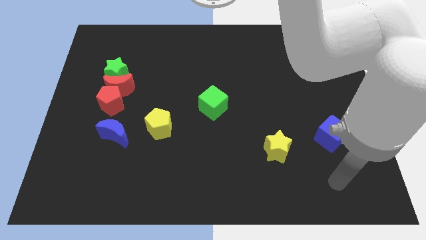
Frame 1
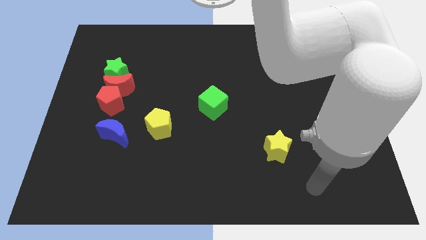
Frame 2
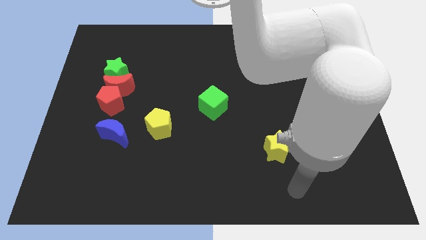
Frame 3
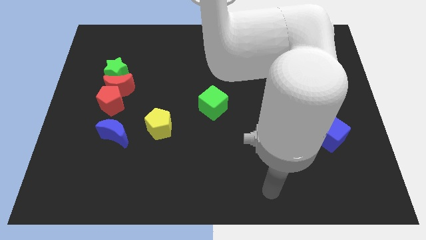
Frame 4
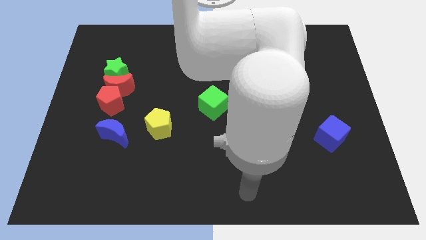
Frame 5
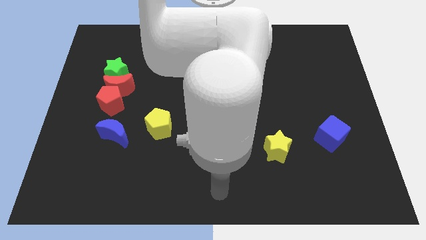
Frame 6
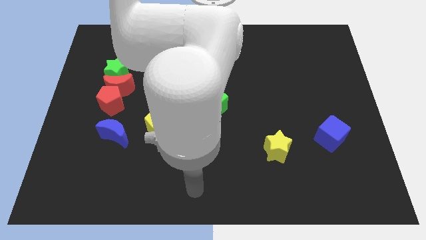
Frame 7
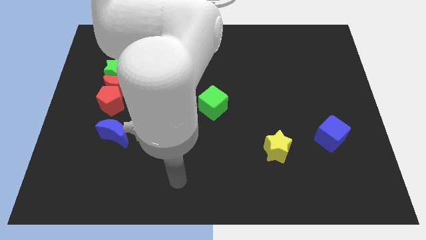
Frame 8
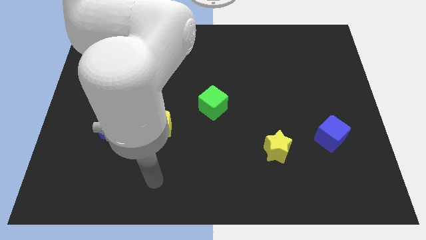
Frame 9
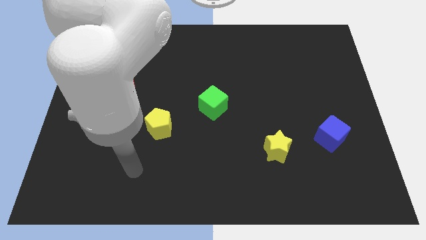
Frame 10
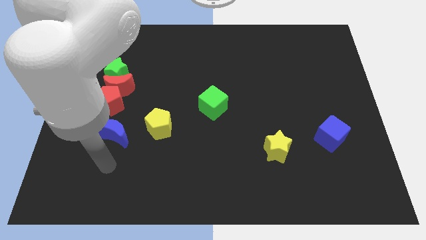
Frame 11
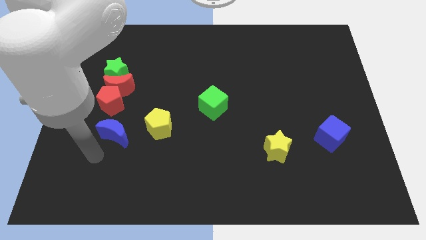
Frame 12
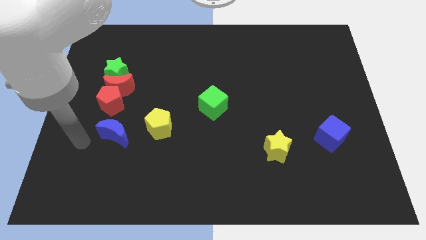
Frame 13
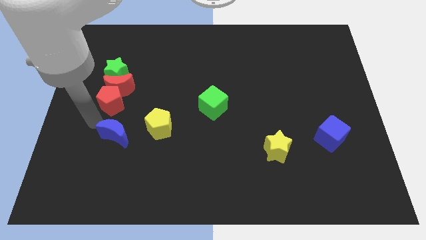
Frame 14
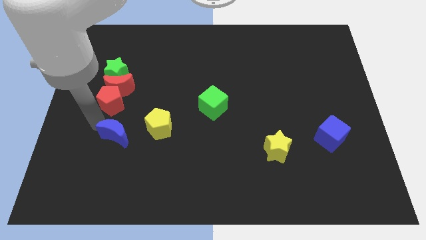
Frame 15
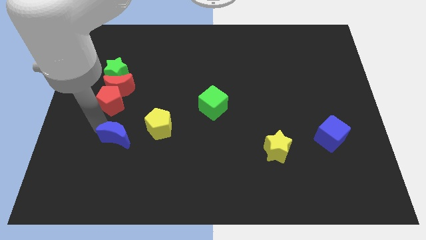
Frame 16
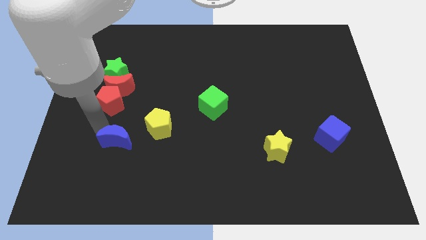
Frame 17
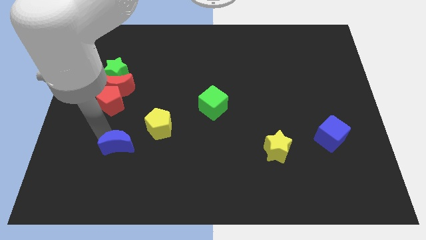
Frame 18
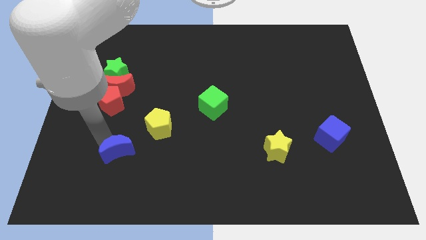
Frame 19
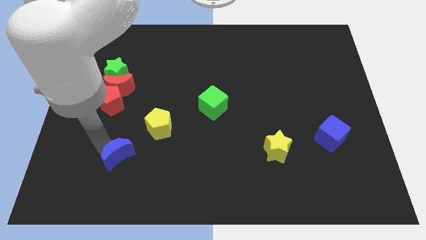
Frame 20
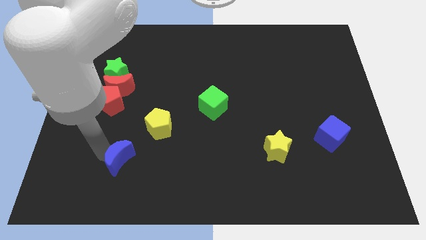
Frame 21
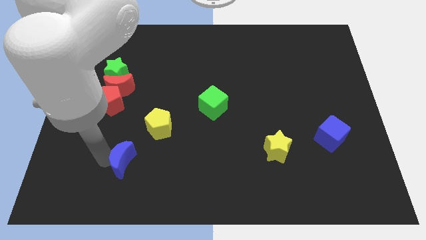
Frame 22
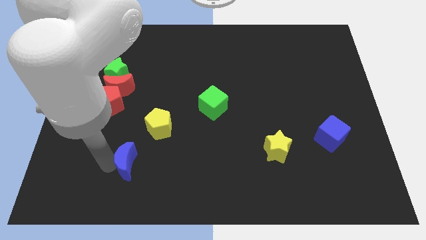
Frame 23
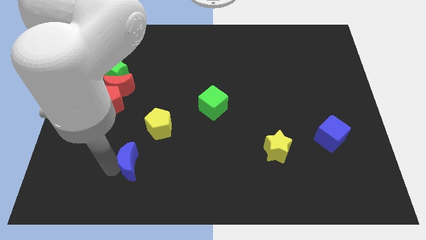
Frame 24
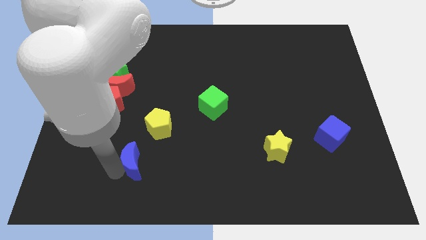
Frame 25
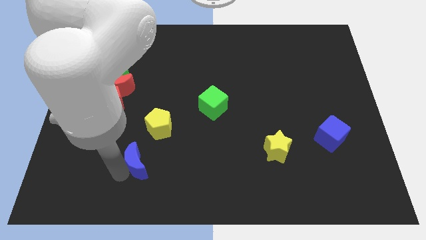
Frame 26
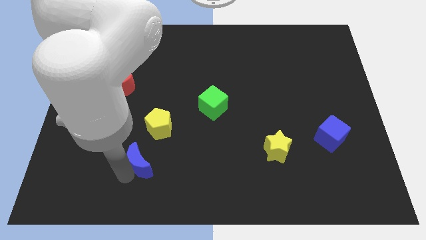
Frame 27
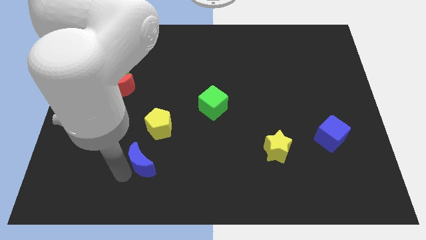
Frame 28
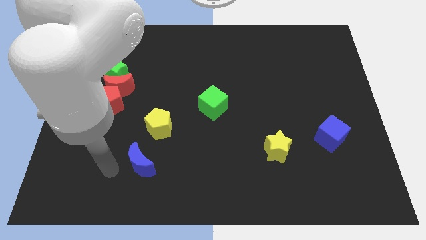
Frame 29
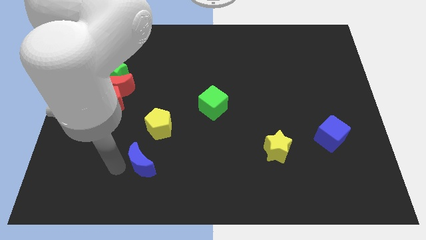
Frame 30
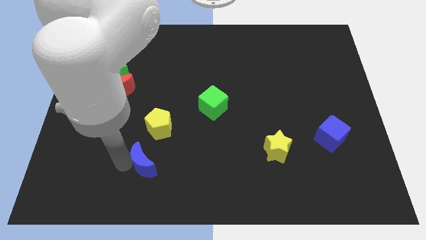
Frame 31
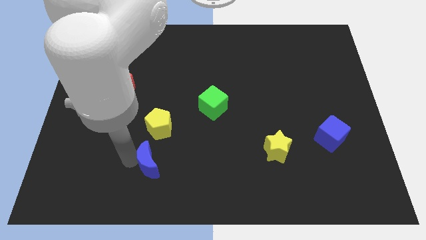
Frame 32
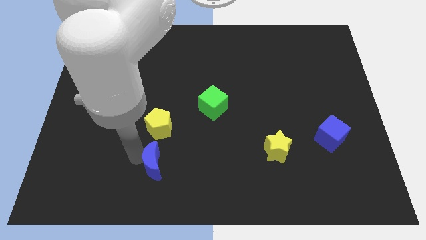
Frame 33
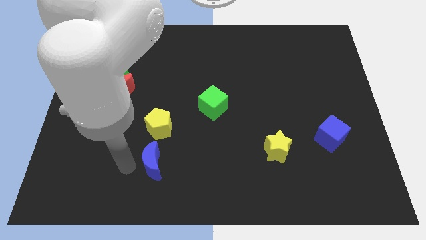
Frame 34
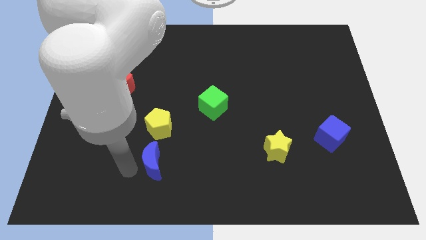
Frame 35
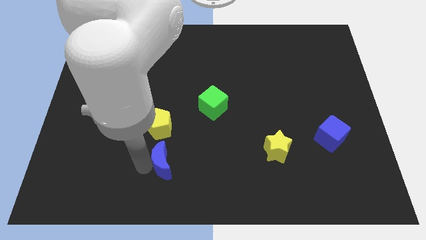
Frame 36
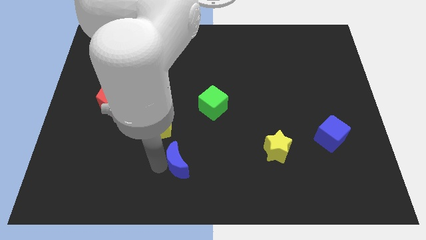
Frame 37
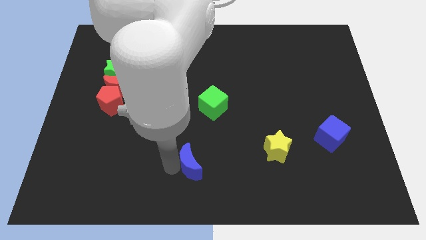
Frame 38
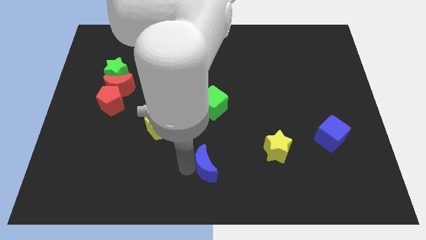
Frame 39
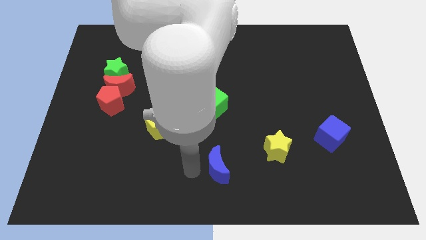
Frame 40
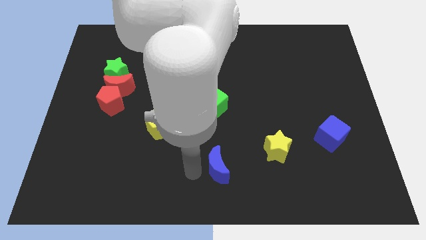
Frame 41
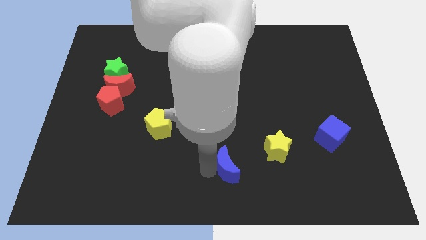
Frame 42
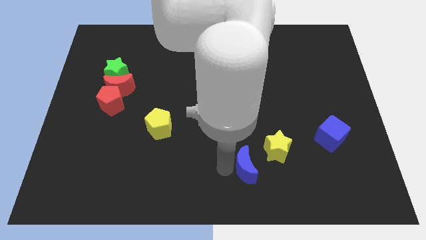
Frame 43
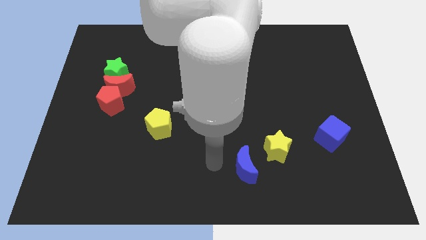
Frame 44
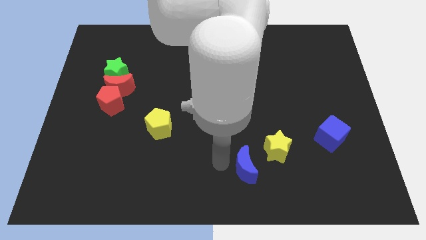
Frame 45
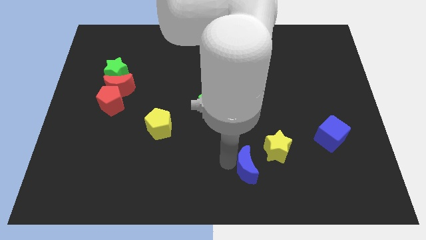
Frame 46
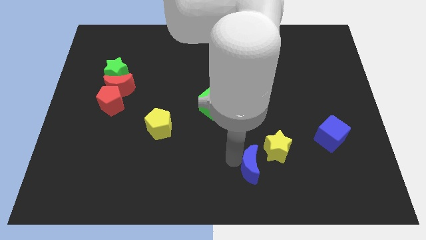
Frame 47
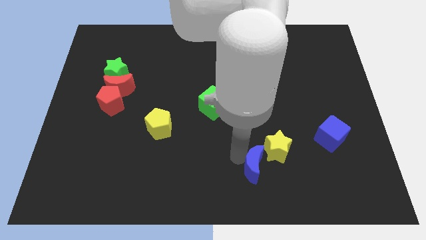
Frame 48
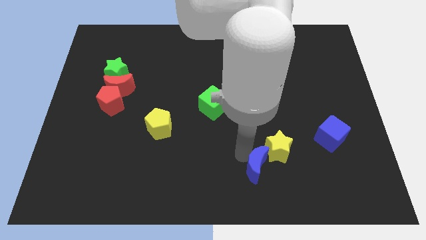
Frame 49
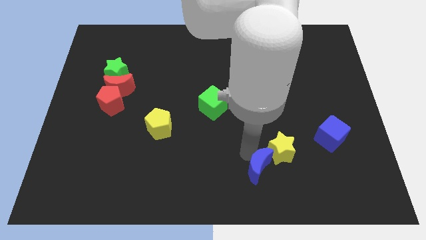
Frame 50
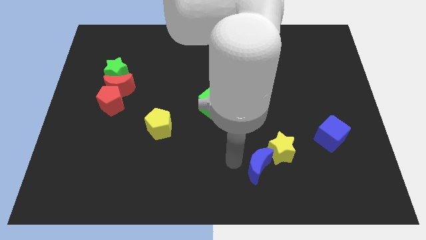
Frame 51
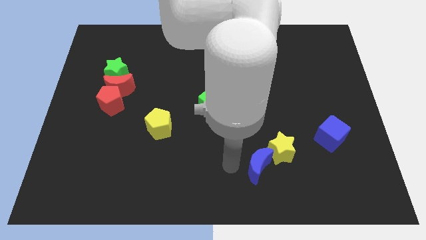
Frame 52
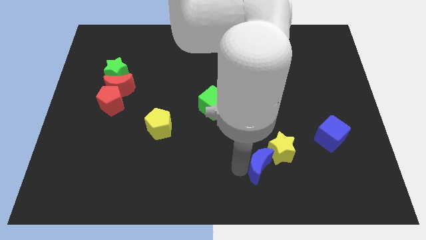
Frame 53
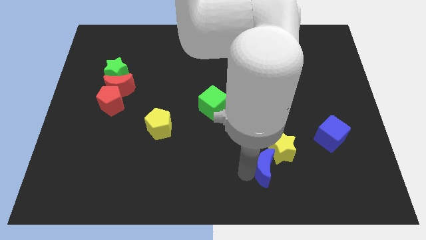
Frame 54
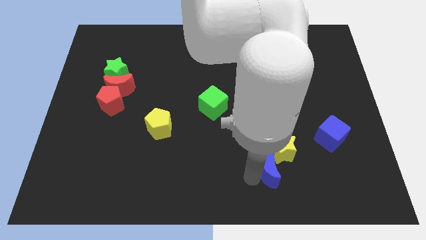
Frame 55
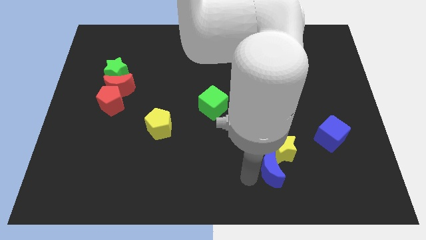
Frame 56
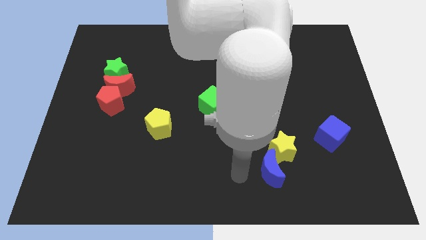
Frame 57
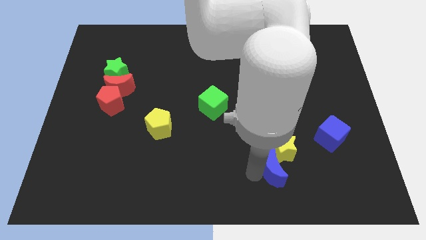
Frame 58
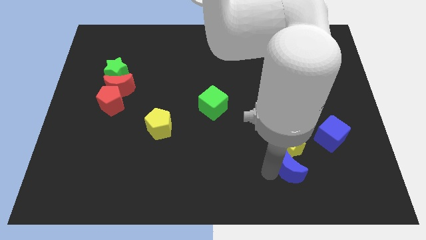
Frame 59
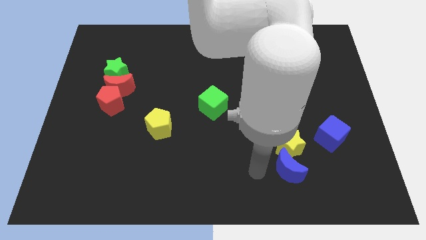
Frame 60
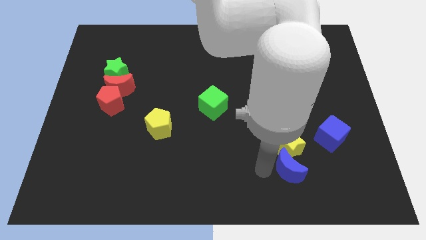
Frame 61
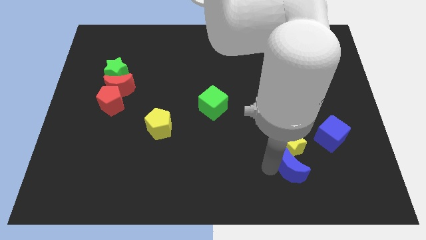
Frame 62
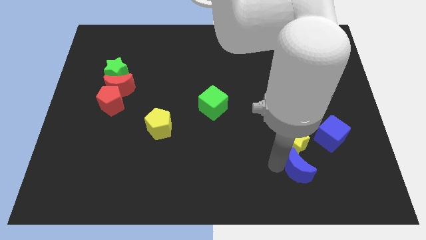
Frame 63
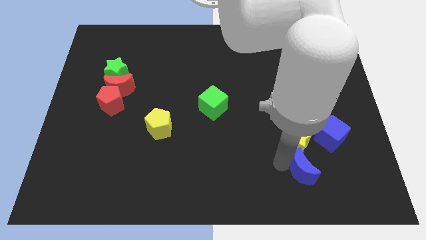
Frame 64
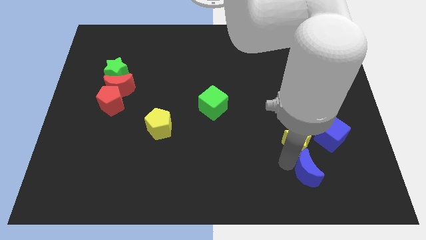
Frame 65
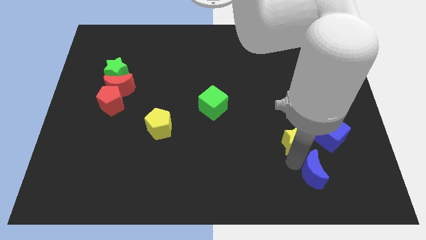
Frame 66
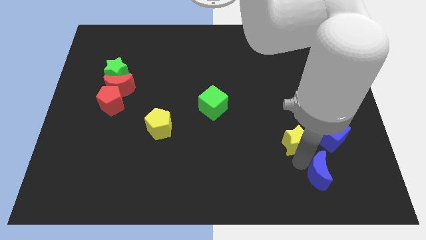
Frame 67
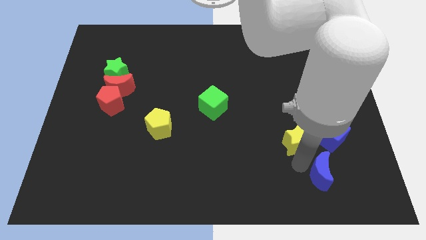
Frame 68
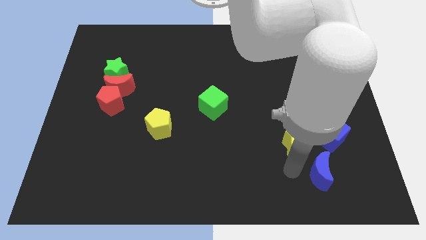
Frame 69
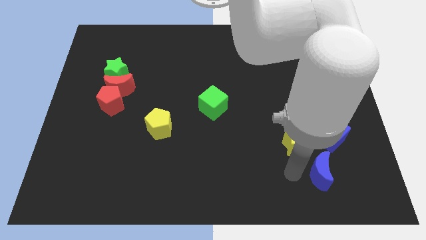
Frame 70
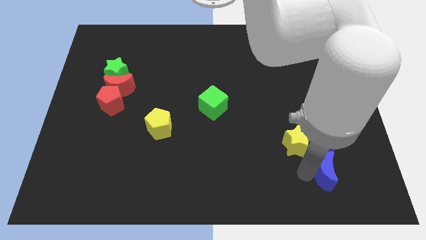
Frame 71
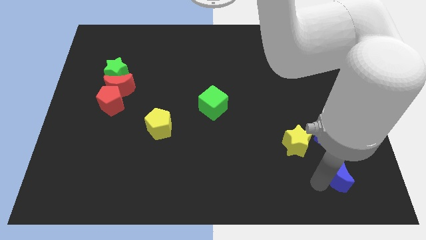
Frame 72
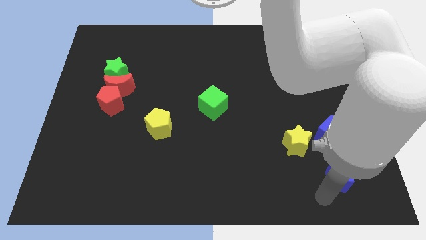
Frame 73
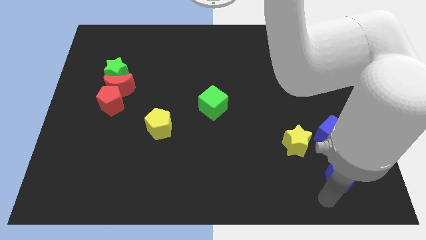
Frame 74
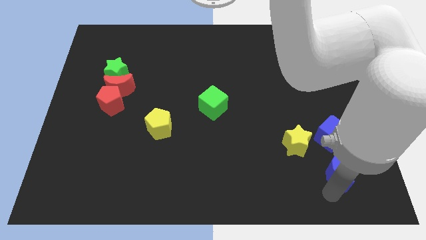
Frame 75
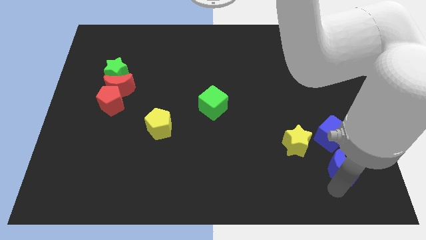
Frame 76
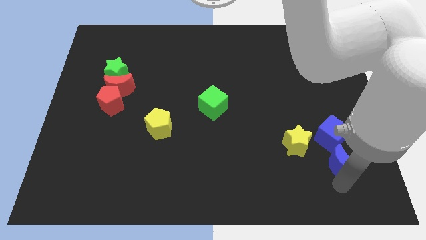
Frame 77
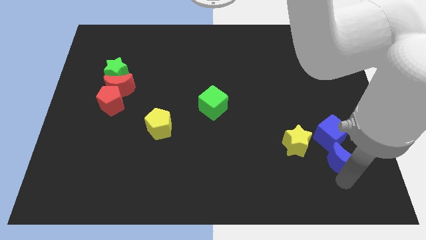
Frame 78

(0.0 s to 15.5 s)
move the blue moon right of the yellow star
